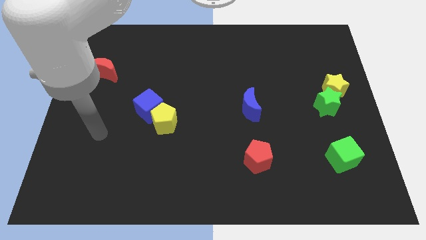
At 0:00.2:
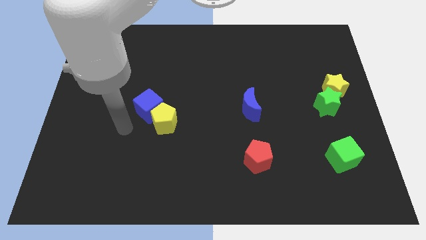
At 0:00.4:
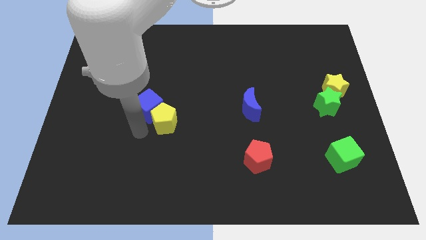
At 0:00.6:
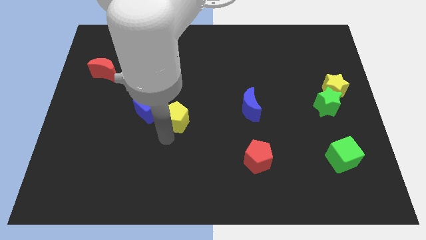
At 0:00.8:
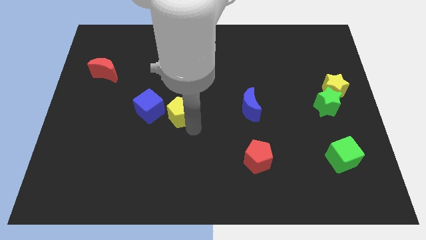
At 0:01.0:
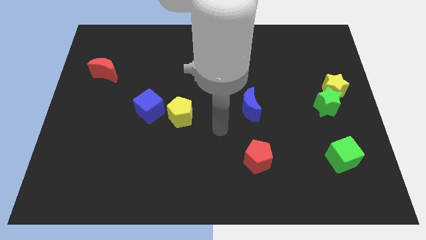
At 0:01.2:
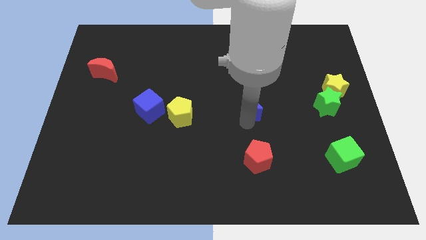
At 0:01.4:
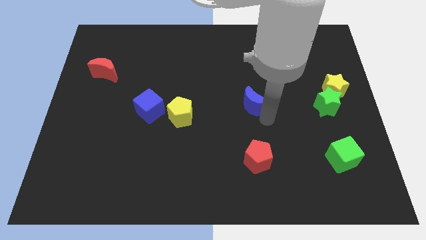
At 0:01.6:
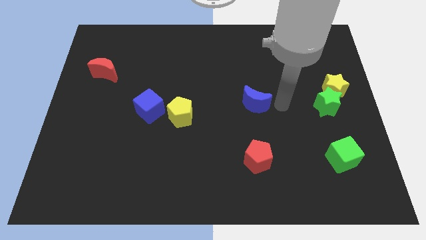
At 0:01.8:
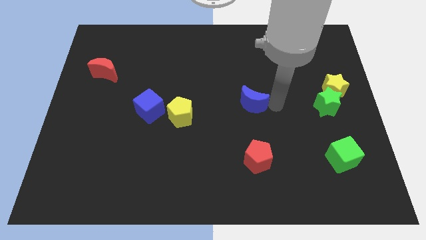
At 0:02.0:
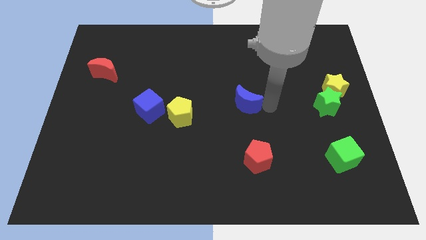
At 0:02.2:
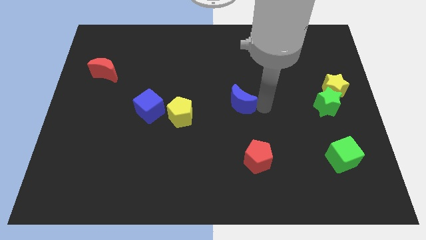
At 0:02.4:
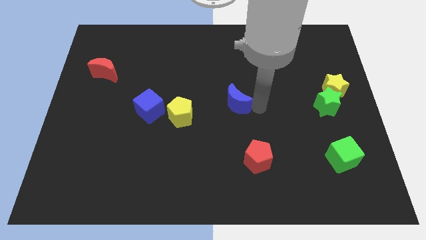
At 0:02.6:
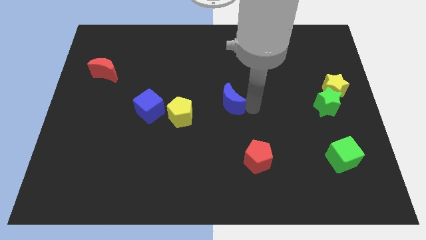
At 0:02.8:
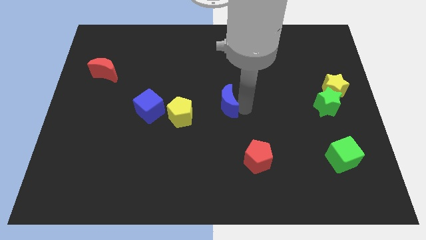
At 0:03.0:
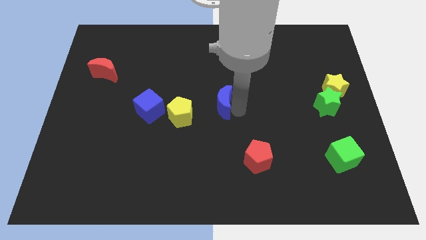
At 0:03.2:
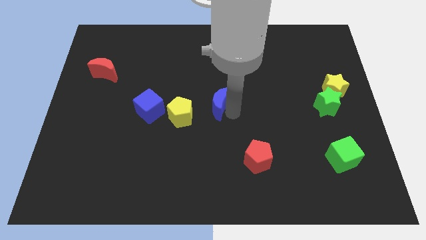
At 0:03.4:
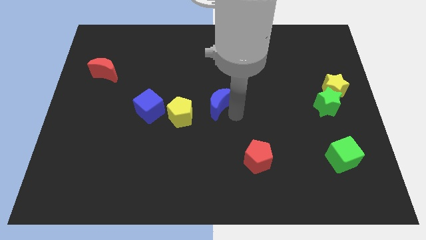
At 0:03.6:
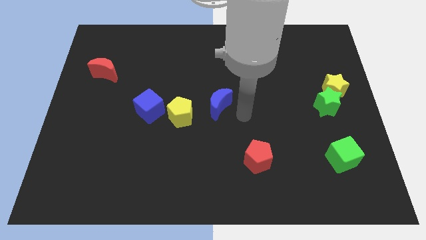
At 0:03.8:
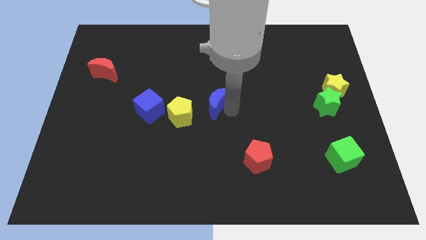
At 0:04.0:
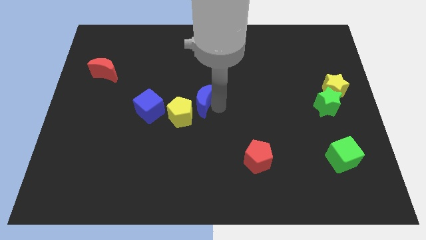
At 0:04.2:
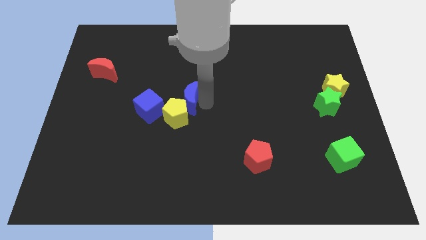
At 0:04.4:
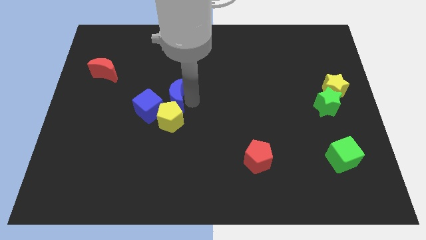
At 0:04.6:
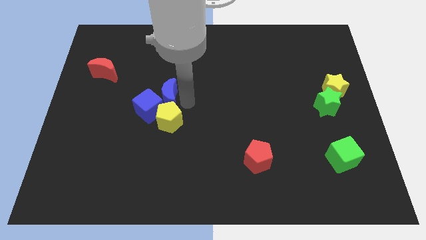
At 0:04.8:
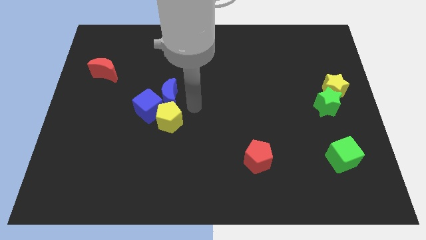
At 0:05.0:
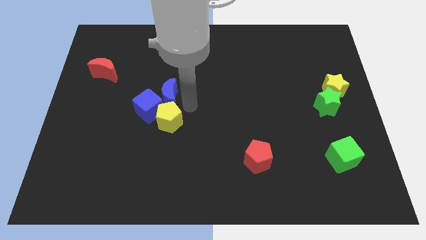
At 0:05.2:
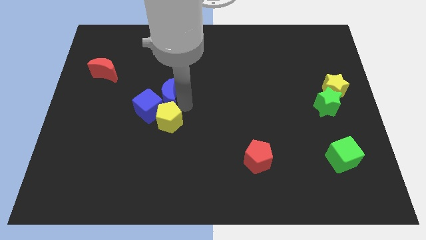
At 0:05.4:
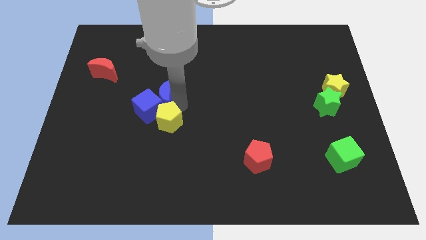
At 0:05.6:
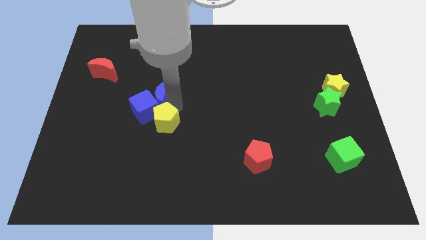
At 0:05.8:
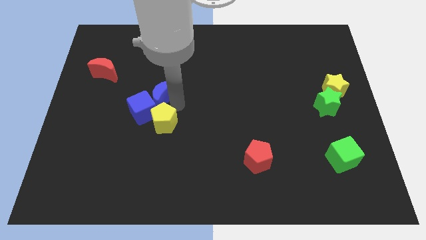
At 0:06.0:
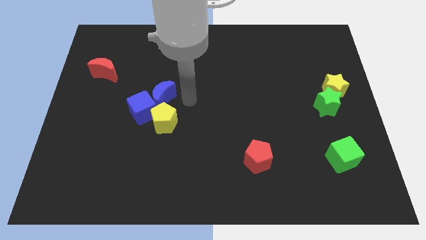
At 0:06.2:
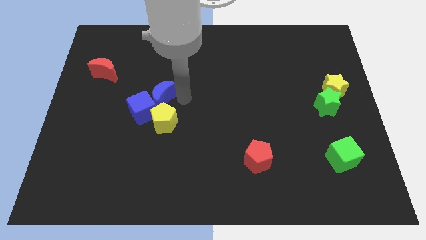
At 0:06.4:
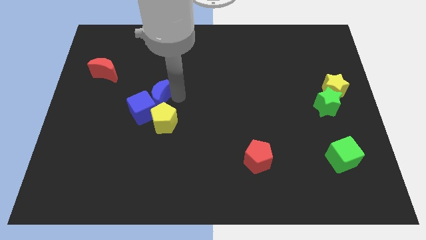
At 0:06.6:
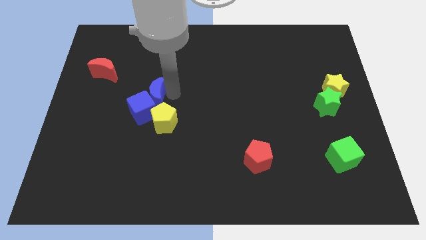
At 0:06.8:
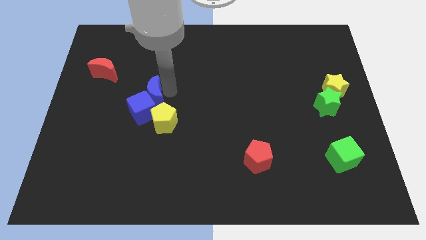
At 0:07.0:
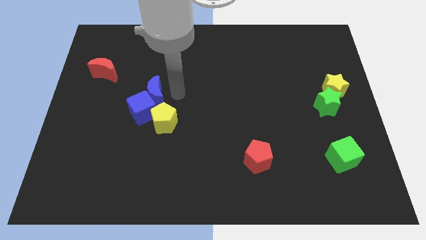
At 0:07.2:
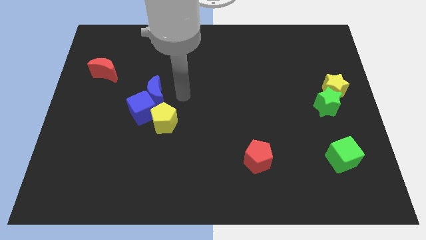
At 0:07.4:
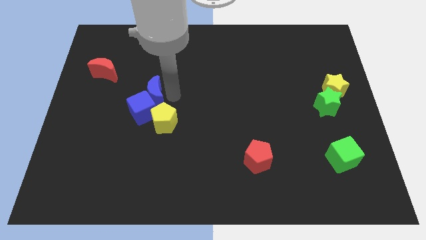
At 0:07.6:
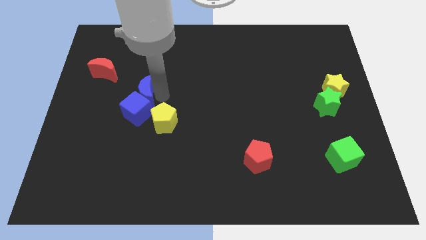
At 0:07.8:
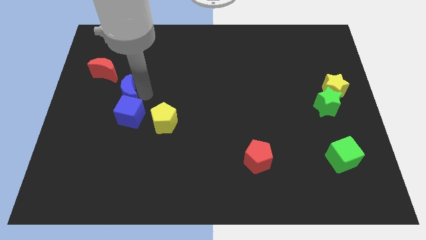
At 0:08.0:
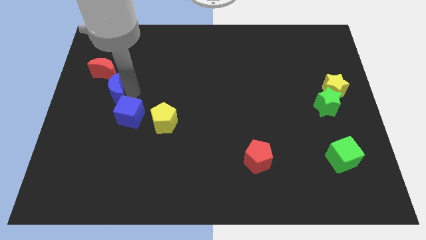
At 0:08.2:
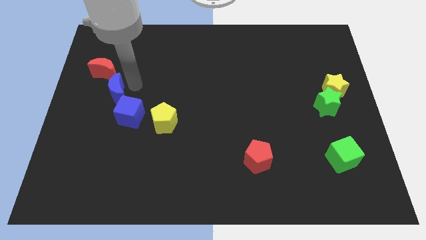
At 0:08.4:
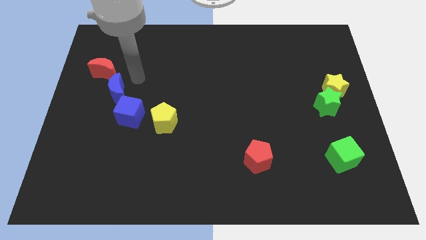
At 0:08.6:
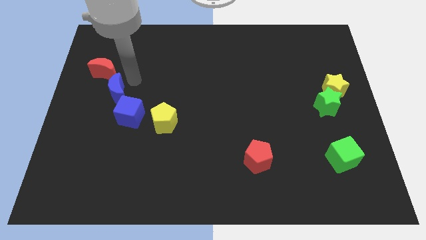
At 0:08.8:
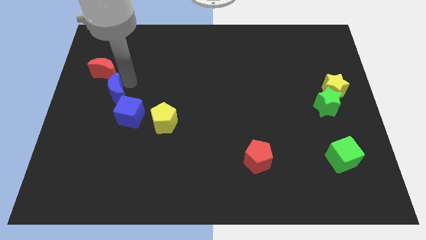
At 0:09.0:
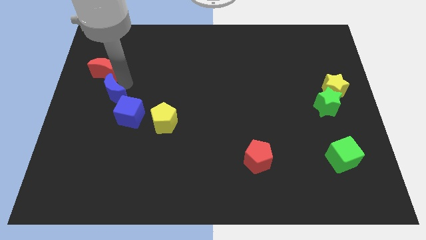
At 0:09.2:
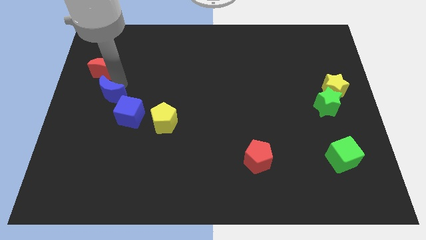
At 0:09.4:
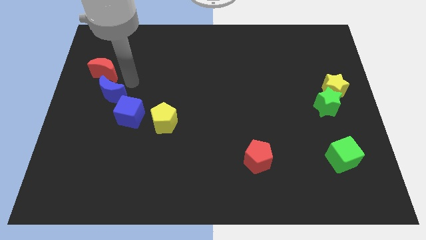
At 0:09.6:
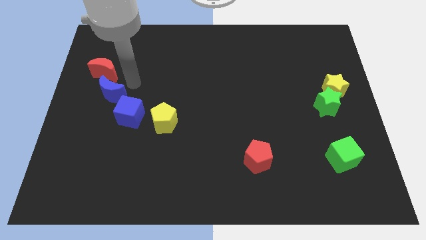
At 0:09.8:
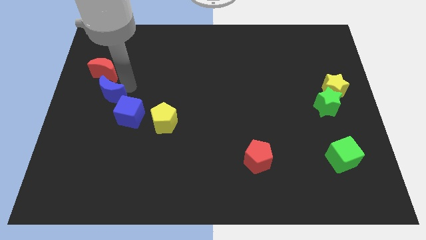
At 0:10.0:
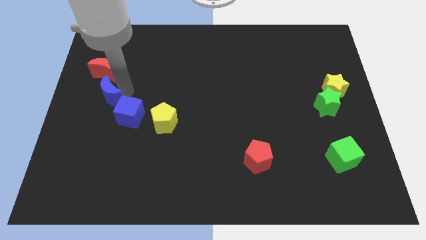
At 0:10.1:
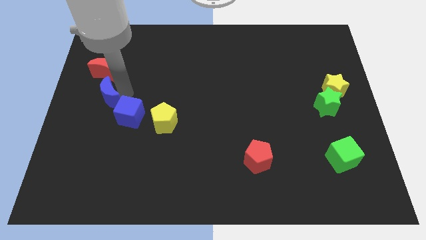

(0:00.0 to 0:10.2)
slide the blue moon to the left side

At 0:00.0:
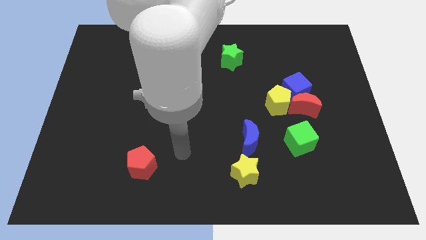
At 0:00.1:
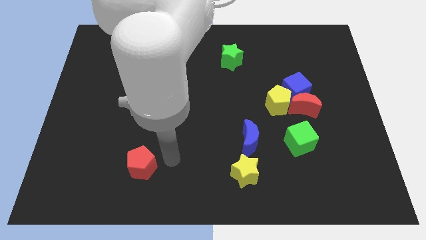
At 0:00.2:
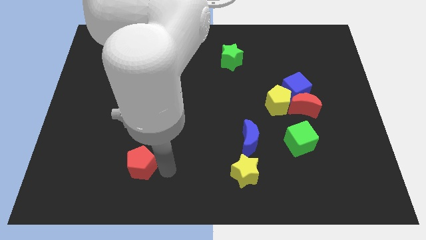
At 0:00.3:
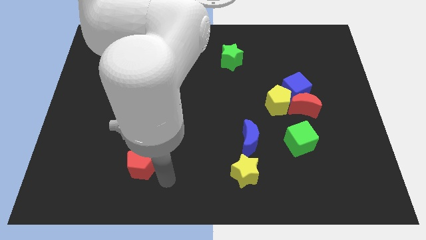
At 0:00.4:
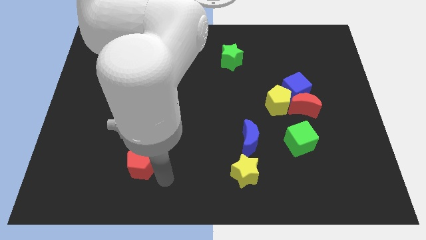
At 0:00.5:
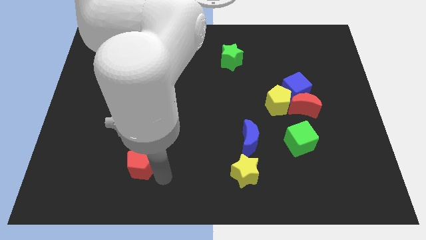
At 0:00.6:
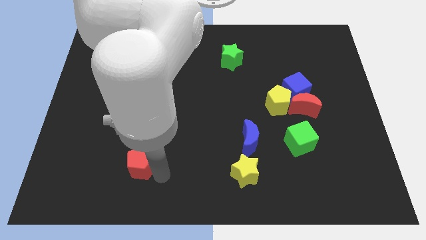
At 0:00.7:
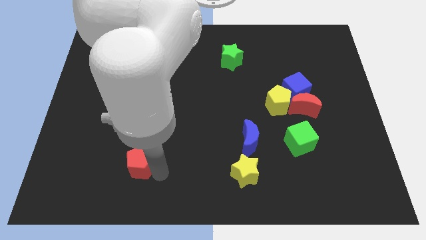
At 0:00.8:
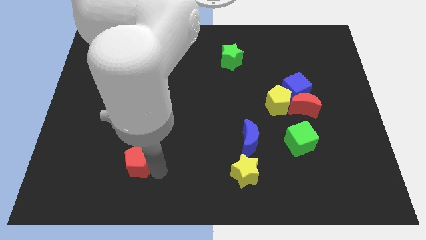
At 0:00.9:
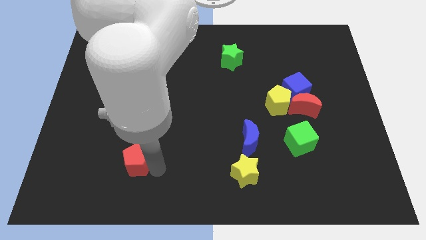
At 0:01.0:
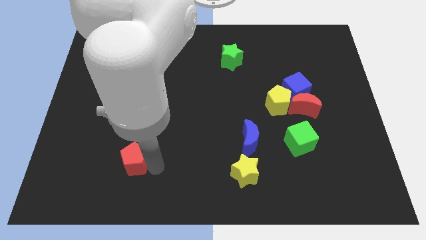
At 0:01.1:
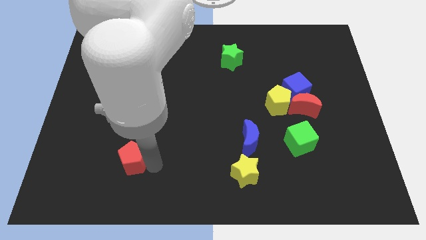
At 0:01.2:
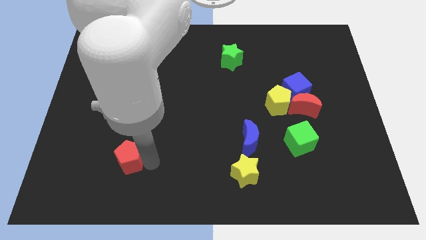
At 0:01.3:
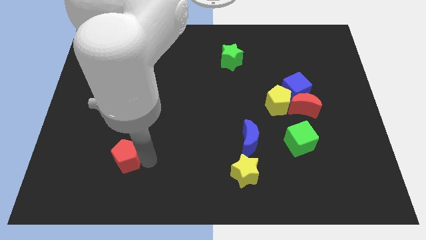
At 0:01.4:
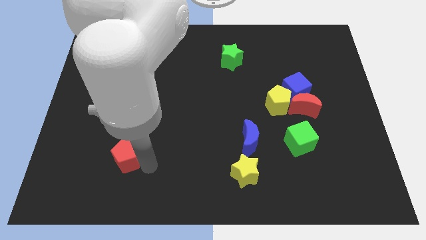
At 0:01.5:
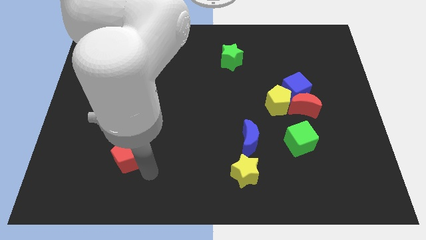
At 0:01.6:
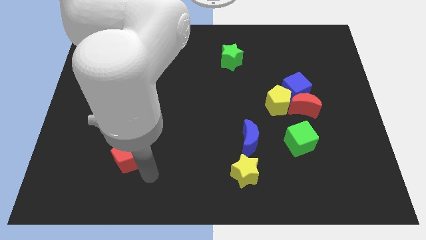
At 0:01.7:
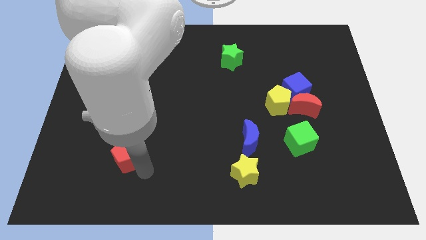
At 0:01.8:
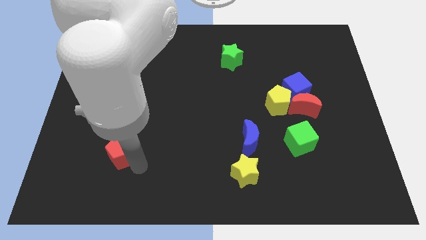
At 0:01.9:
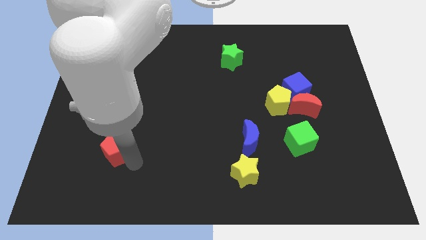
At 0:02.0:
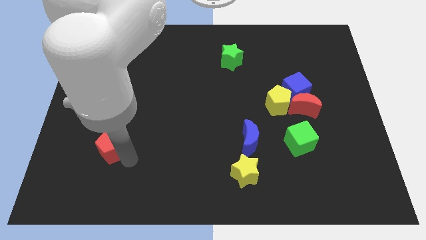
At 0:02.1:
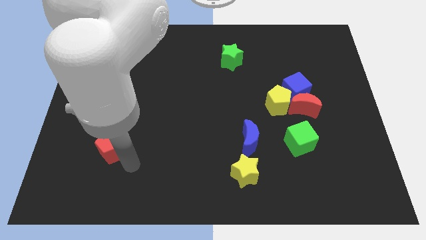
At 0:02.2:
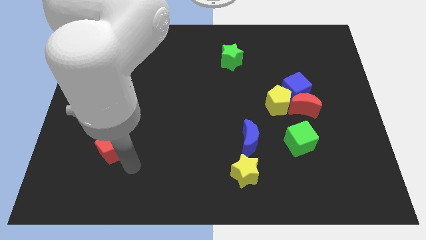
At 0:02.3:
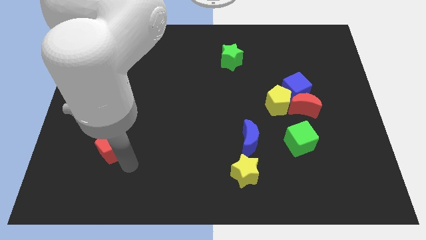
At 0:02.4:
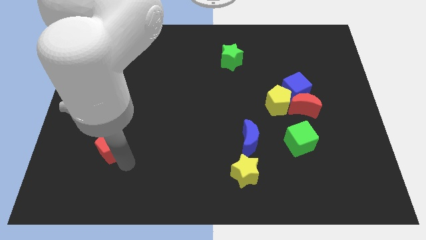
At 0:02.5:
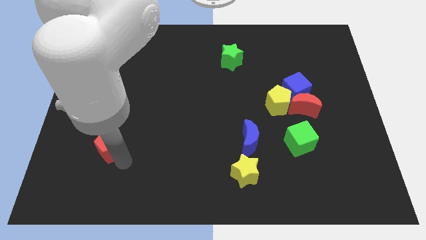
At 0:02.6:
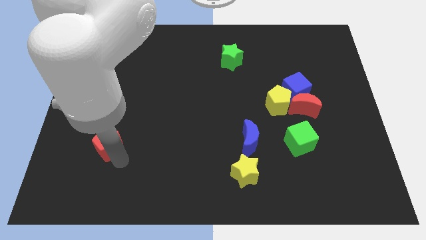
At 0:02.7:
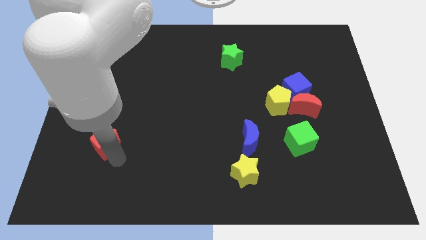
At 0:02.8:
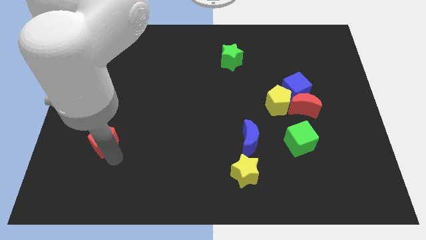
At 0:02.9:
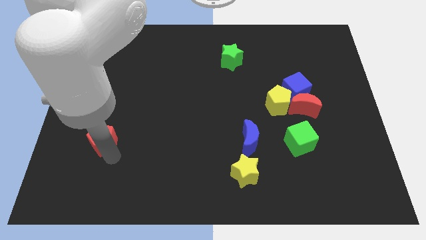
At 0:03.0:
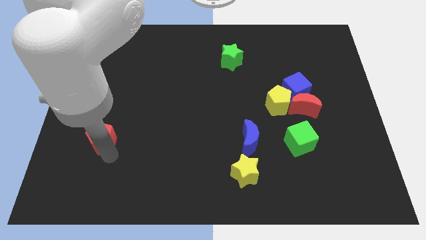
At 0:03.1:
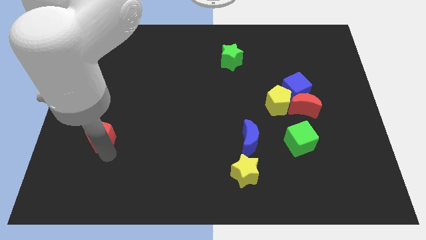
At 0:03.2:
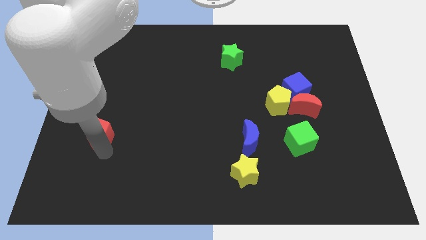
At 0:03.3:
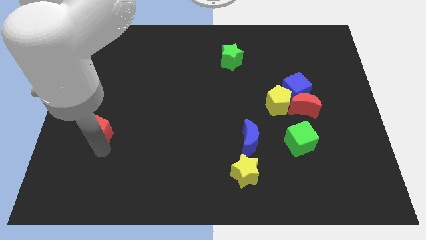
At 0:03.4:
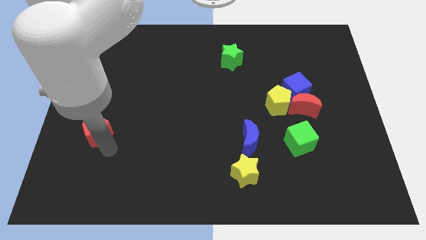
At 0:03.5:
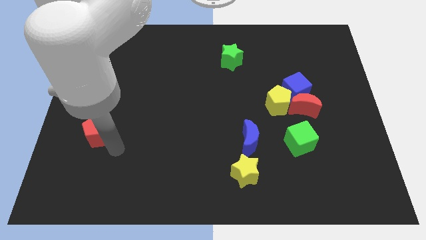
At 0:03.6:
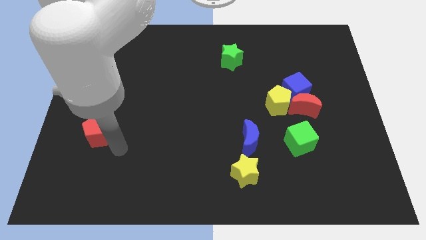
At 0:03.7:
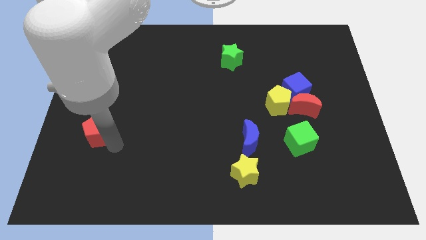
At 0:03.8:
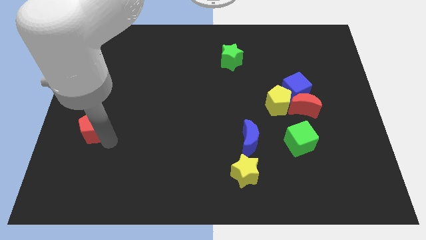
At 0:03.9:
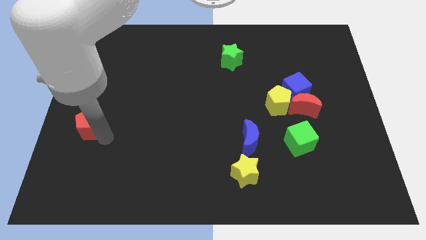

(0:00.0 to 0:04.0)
put the red pentagon to the left side of the board
